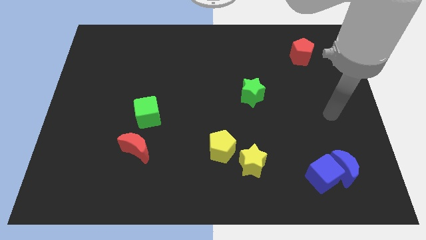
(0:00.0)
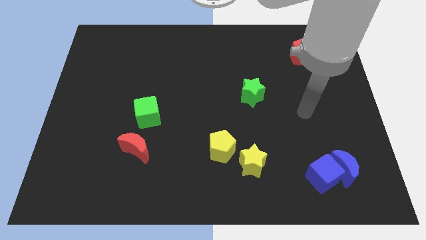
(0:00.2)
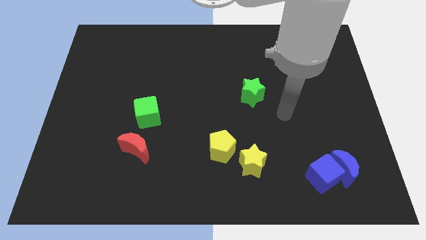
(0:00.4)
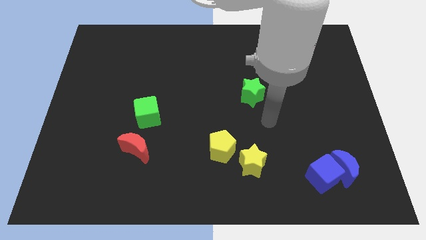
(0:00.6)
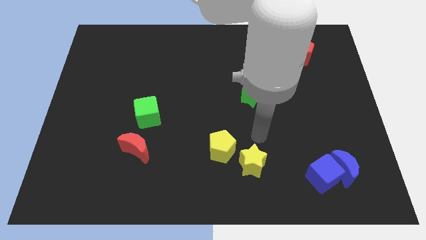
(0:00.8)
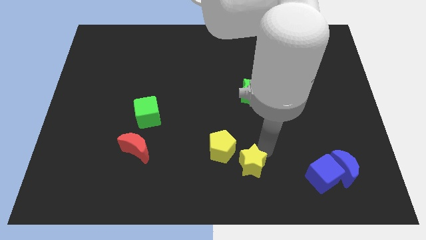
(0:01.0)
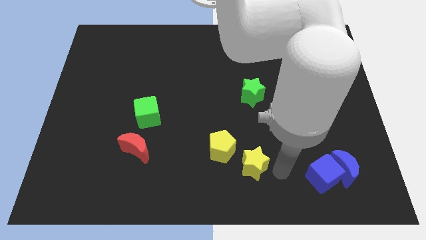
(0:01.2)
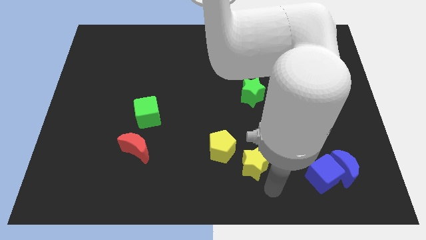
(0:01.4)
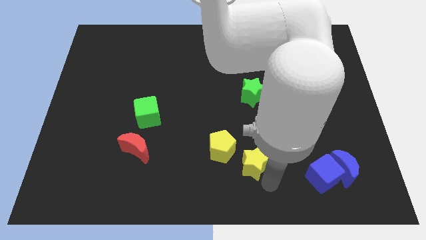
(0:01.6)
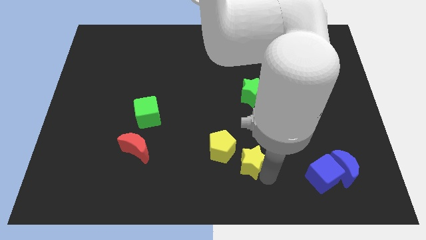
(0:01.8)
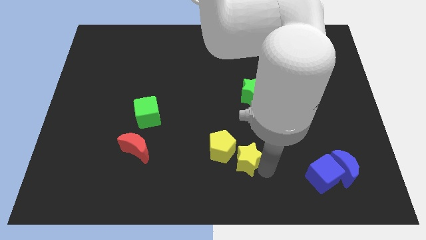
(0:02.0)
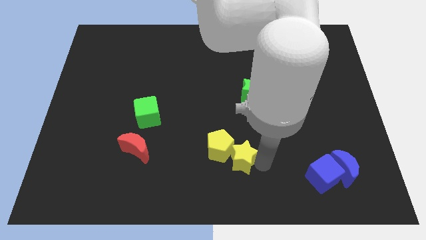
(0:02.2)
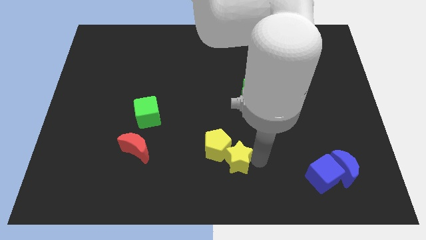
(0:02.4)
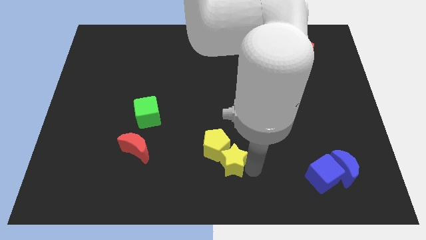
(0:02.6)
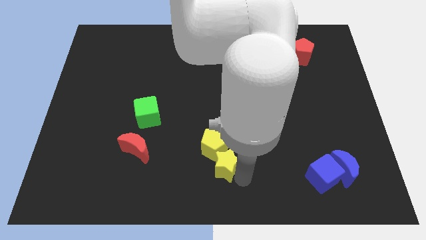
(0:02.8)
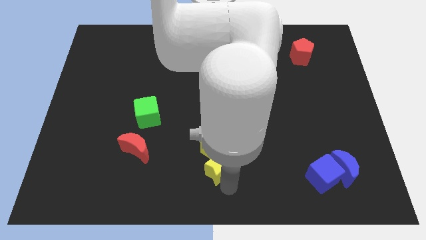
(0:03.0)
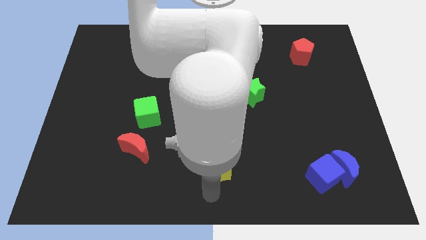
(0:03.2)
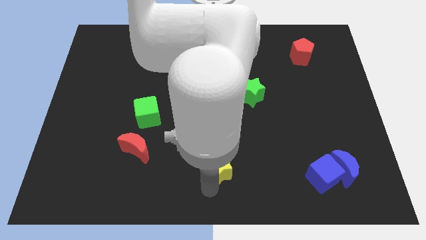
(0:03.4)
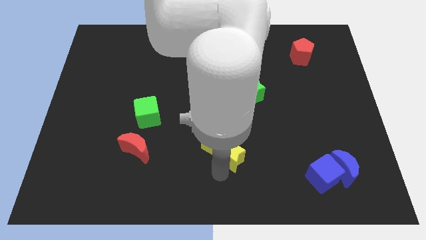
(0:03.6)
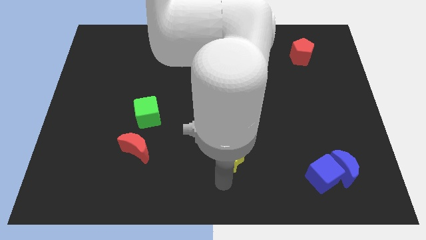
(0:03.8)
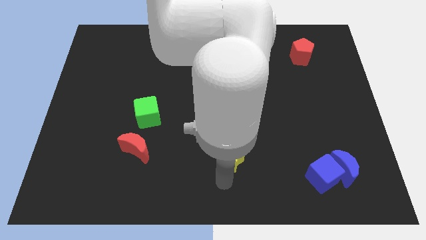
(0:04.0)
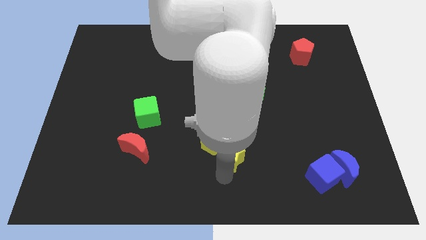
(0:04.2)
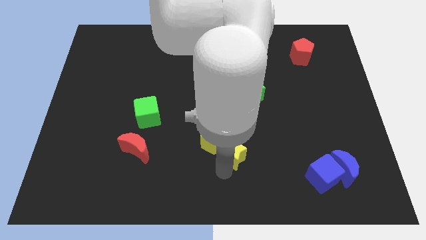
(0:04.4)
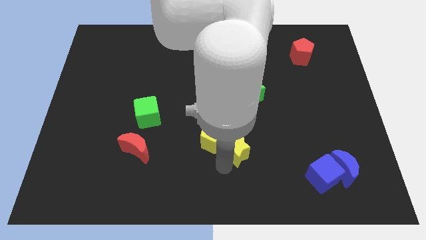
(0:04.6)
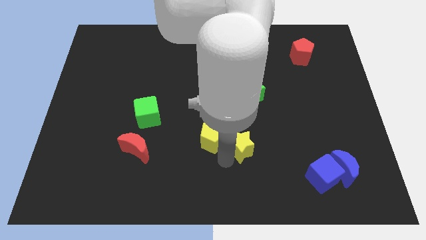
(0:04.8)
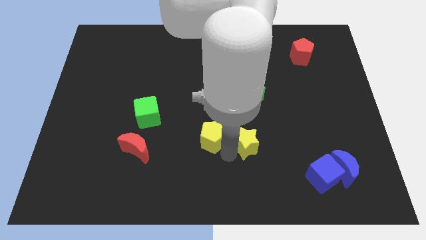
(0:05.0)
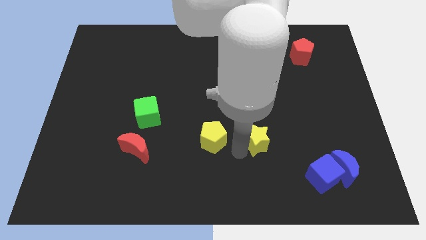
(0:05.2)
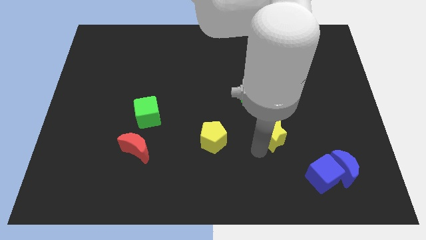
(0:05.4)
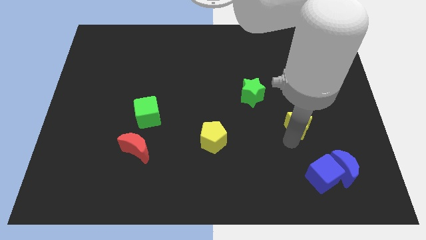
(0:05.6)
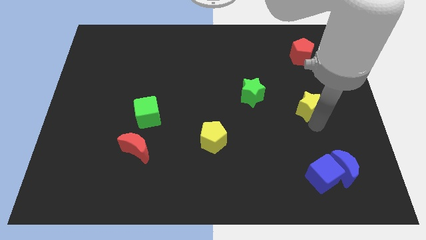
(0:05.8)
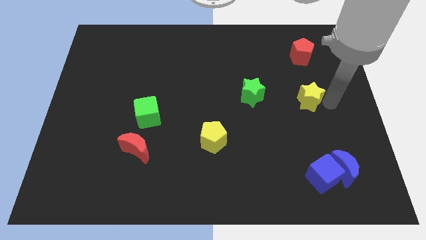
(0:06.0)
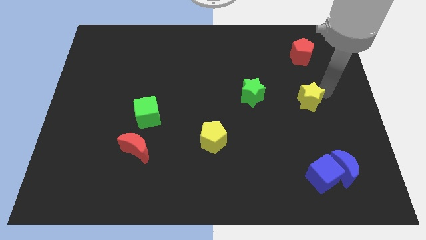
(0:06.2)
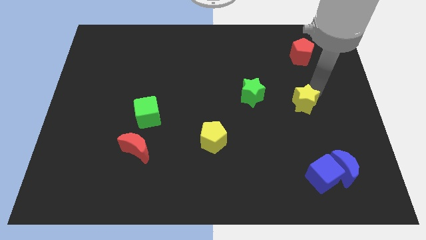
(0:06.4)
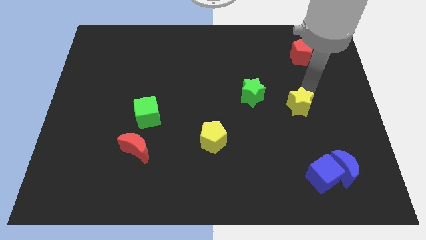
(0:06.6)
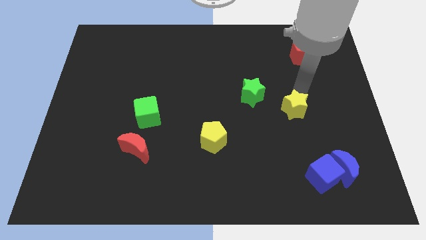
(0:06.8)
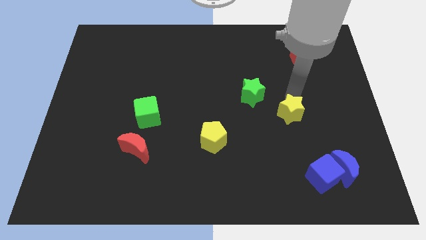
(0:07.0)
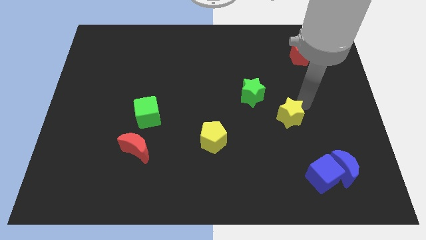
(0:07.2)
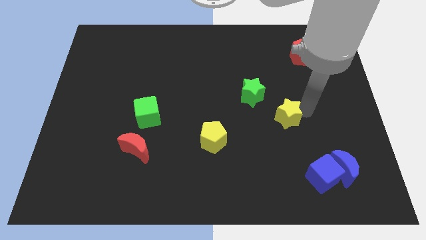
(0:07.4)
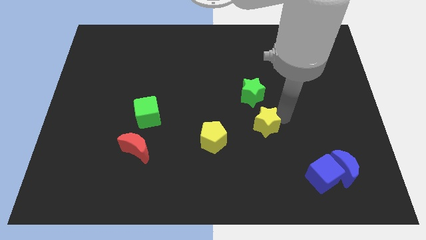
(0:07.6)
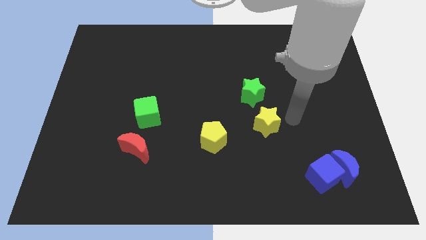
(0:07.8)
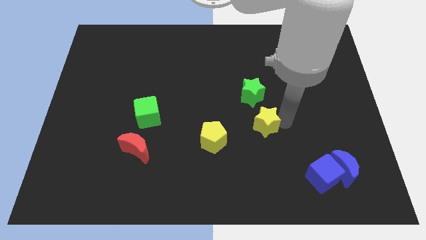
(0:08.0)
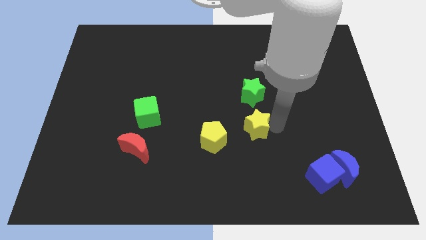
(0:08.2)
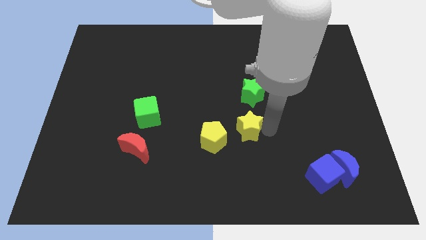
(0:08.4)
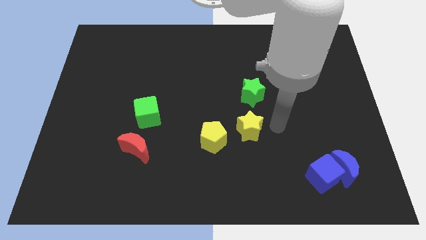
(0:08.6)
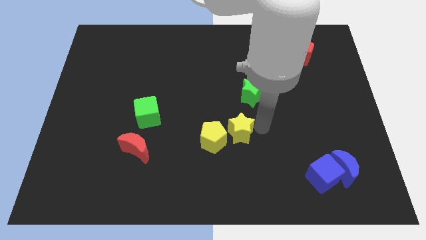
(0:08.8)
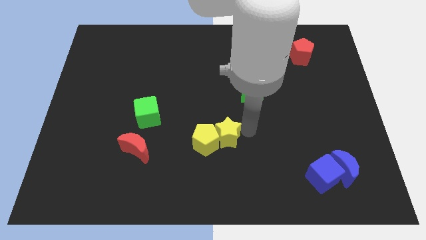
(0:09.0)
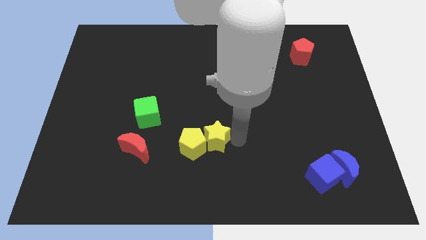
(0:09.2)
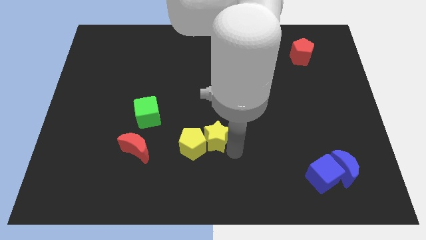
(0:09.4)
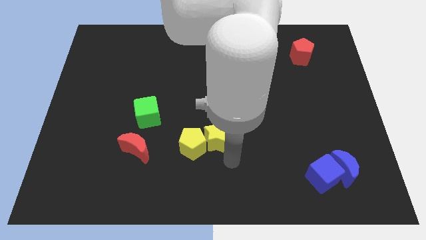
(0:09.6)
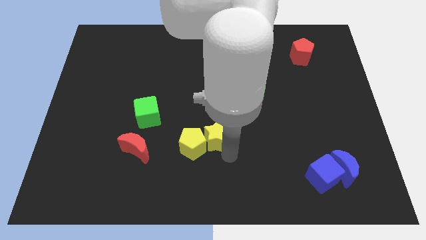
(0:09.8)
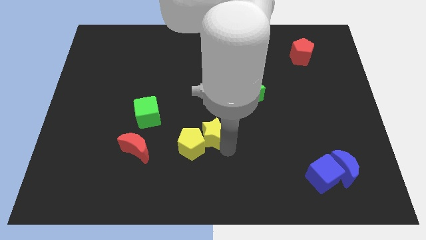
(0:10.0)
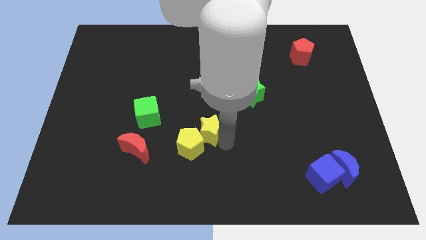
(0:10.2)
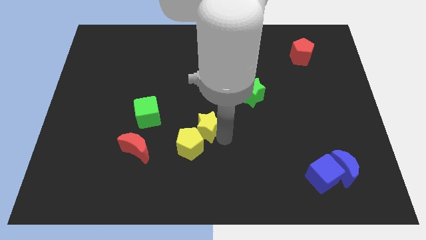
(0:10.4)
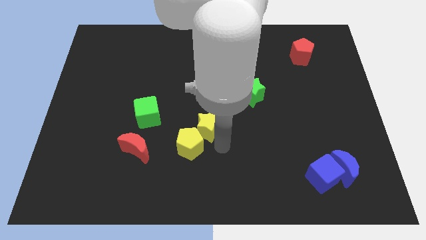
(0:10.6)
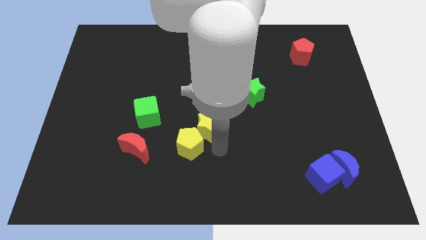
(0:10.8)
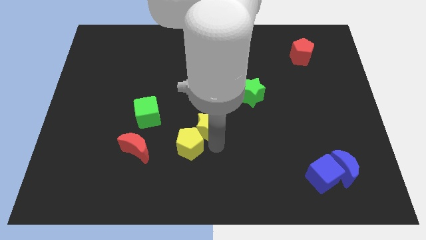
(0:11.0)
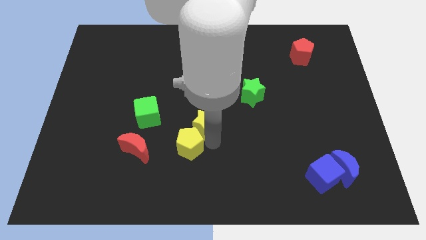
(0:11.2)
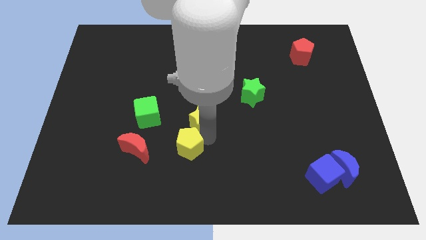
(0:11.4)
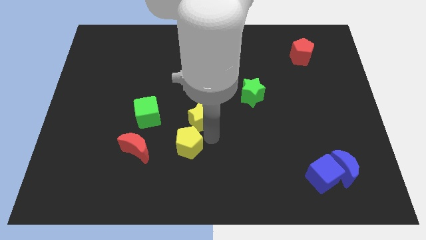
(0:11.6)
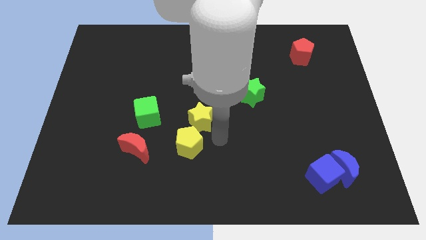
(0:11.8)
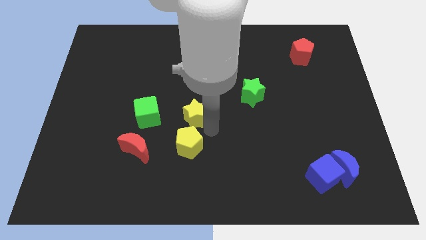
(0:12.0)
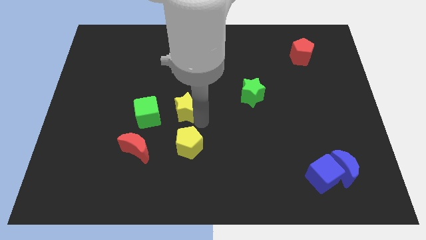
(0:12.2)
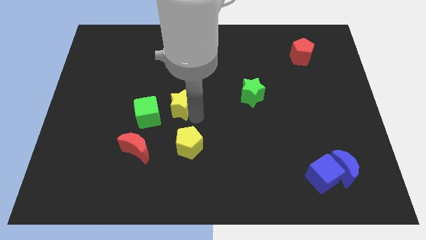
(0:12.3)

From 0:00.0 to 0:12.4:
put the yellow star to the top right side of the green cube

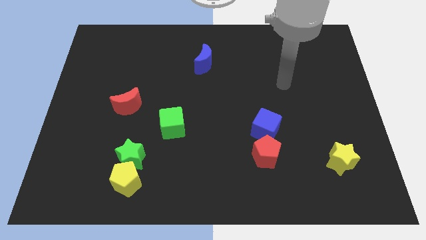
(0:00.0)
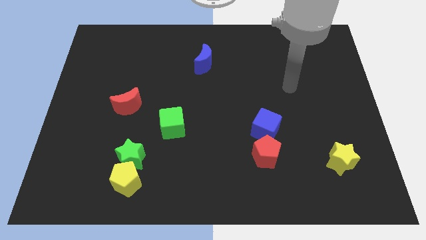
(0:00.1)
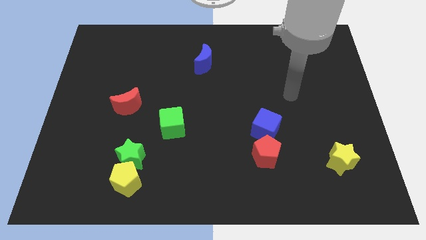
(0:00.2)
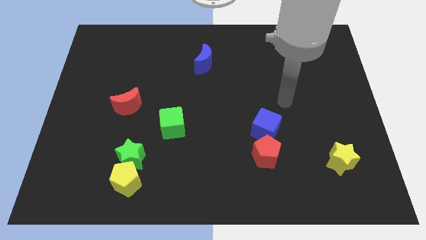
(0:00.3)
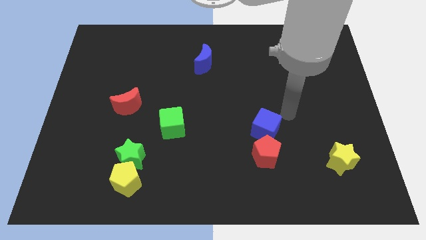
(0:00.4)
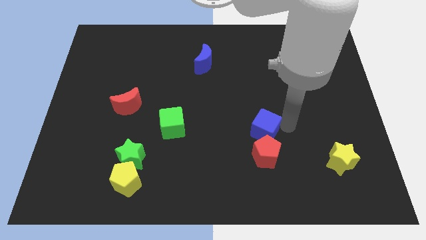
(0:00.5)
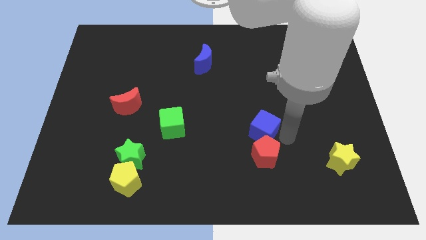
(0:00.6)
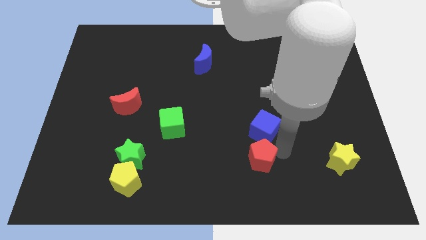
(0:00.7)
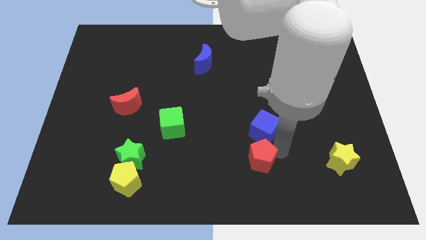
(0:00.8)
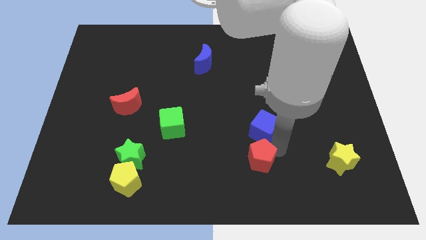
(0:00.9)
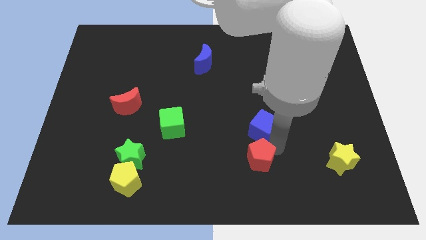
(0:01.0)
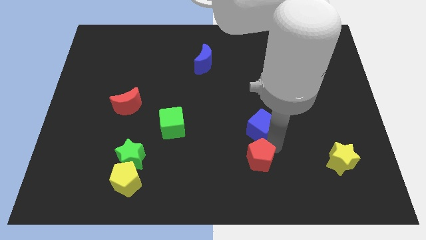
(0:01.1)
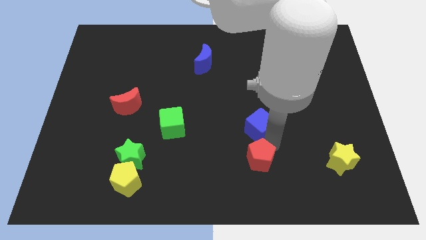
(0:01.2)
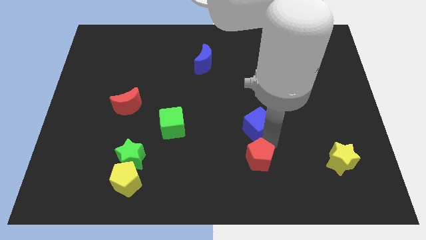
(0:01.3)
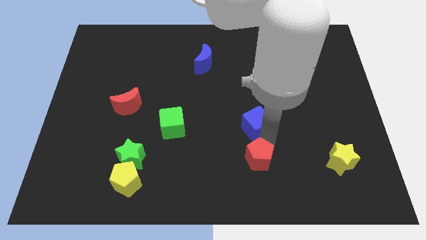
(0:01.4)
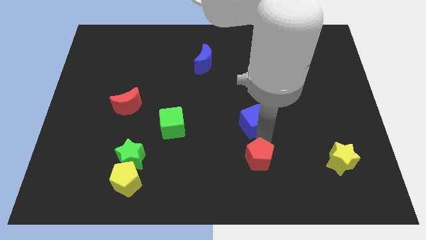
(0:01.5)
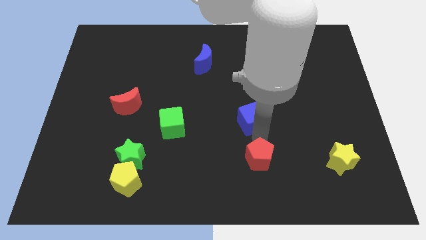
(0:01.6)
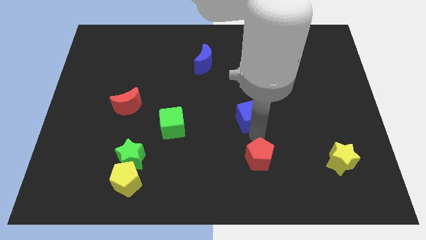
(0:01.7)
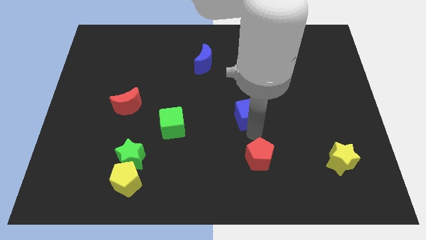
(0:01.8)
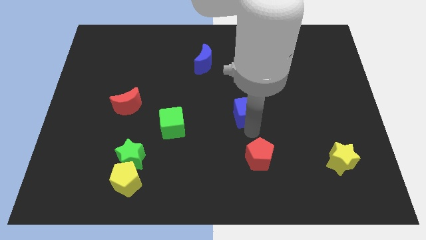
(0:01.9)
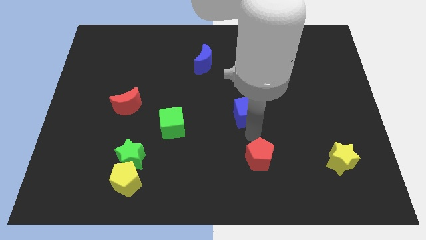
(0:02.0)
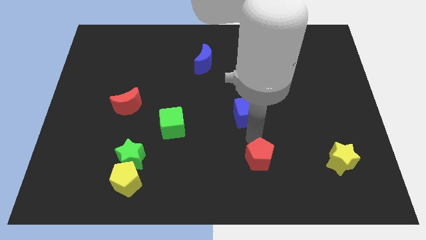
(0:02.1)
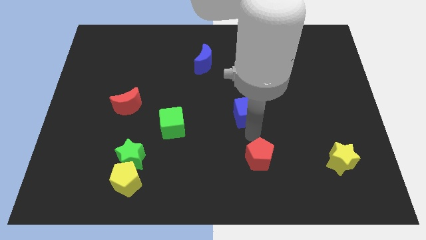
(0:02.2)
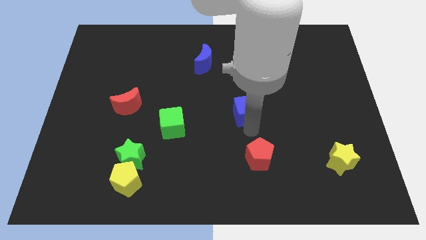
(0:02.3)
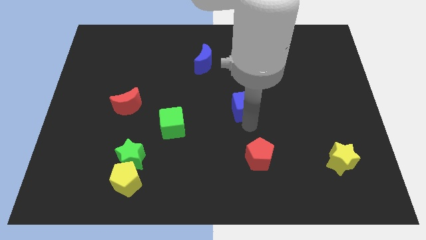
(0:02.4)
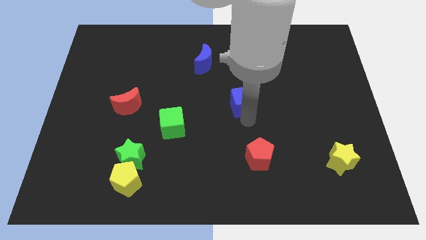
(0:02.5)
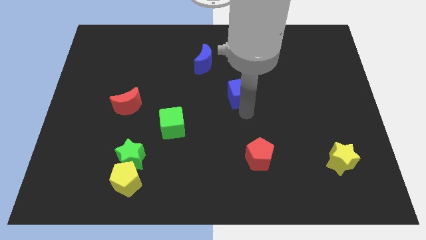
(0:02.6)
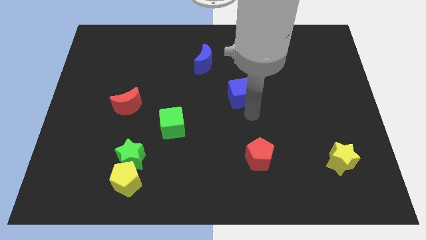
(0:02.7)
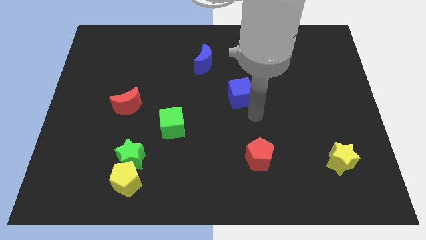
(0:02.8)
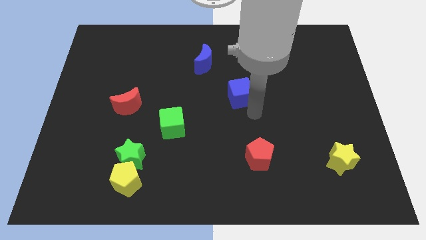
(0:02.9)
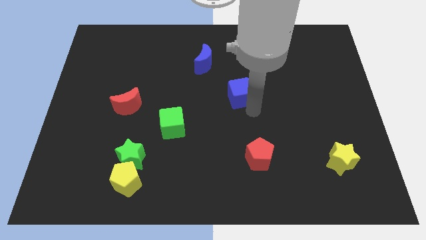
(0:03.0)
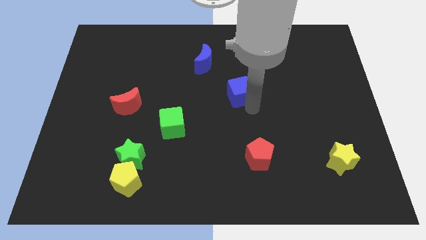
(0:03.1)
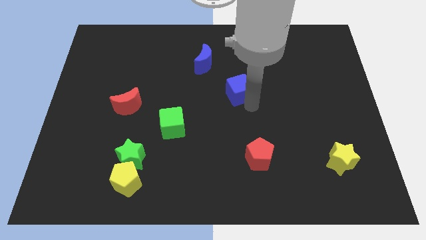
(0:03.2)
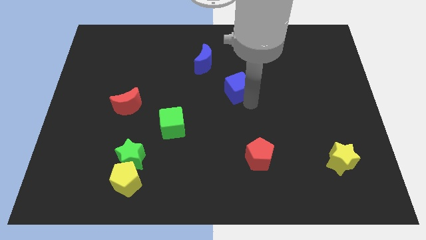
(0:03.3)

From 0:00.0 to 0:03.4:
put the blue cube diagonally down and to the right of the blue moon
